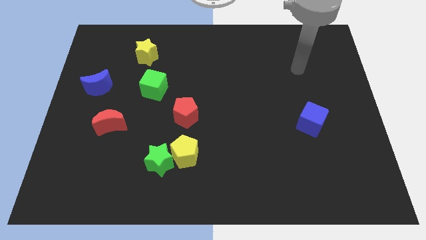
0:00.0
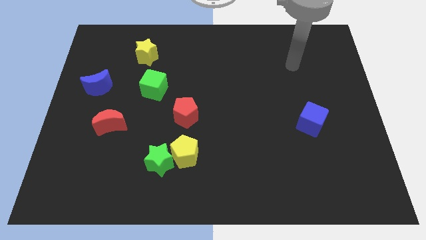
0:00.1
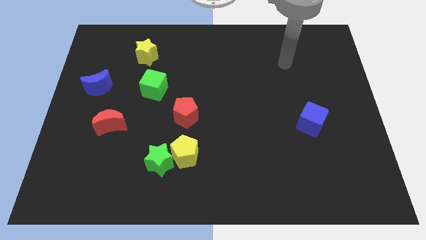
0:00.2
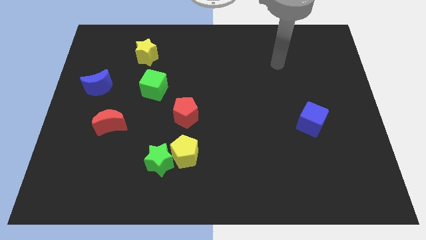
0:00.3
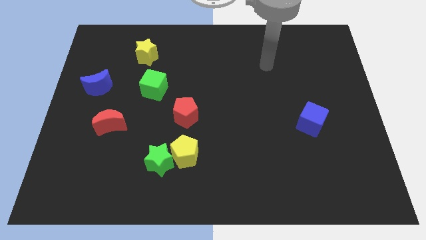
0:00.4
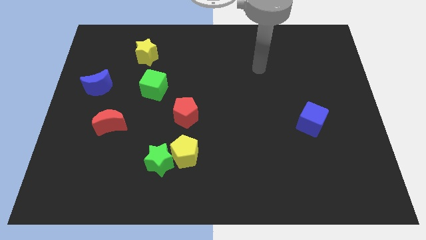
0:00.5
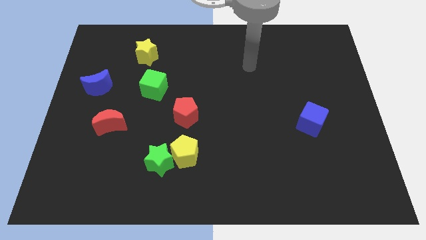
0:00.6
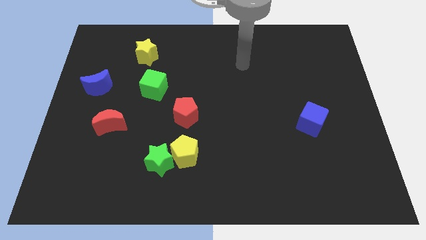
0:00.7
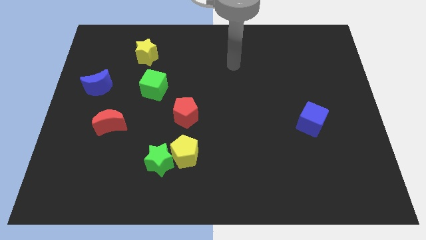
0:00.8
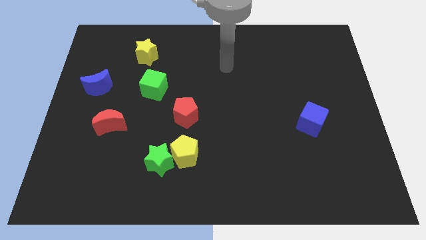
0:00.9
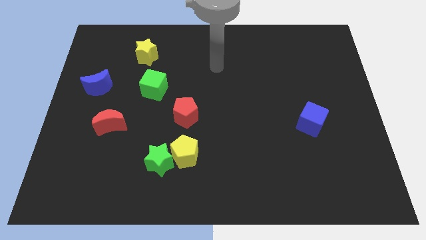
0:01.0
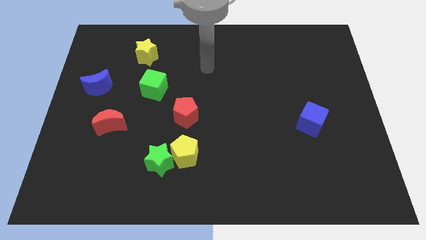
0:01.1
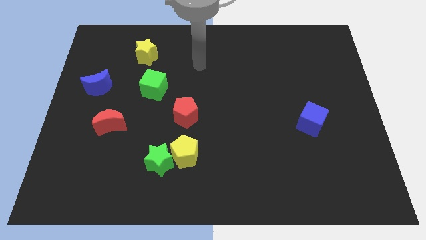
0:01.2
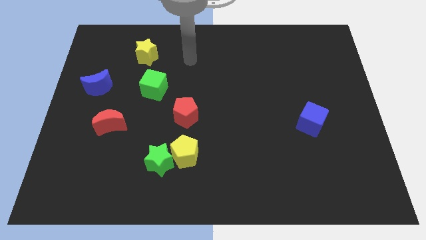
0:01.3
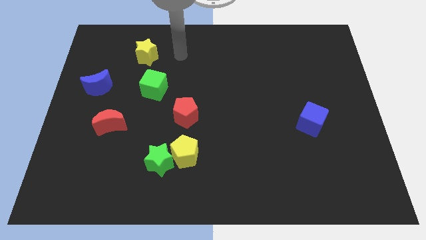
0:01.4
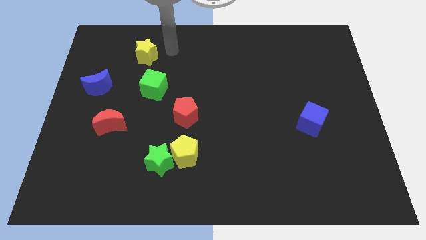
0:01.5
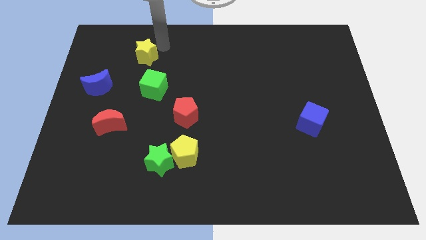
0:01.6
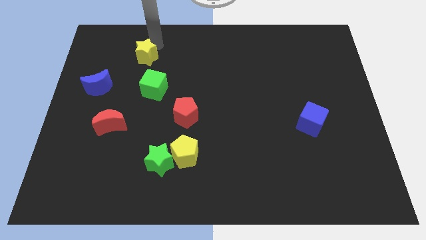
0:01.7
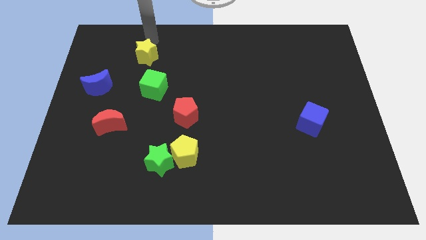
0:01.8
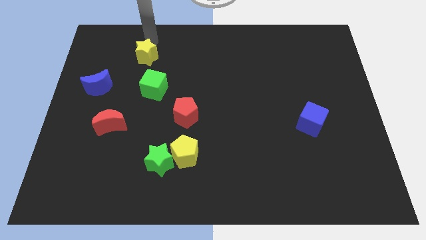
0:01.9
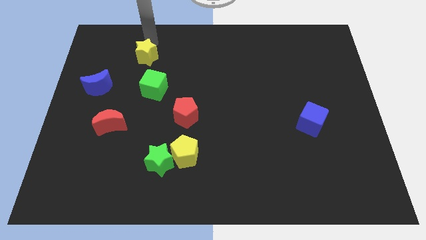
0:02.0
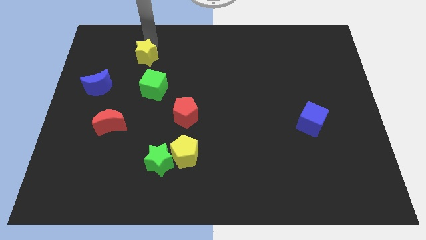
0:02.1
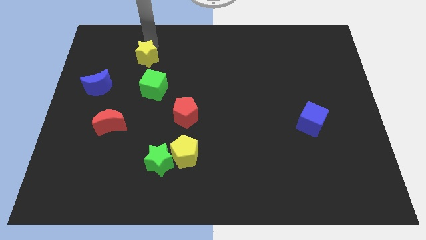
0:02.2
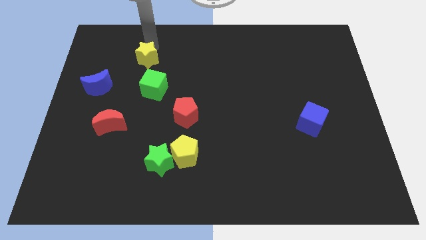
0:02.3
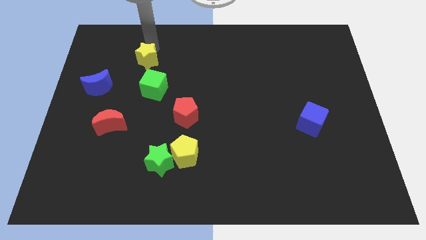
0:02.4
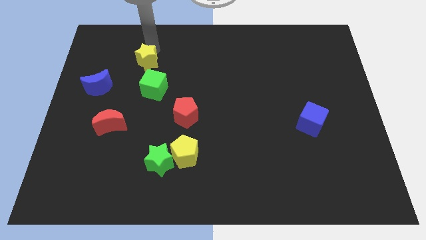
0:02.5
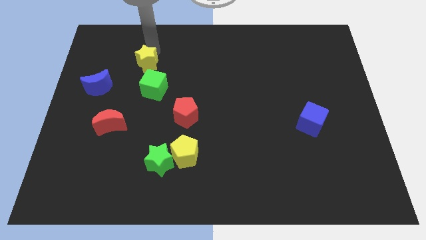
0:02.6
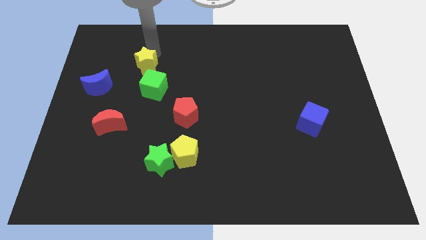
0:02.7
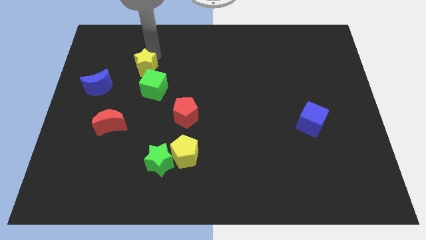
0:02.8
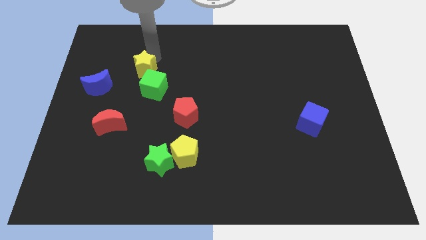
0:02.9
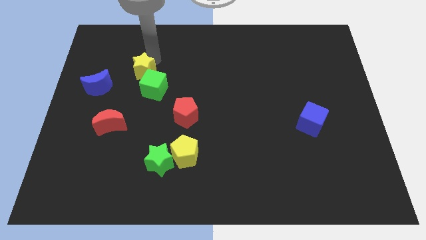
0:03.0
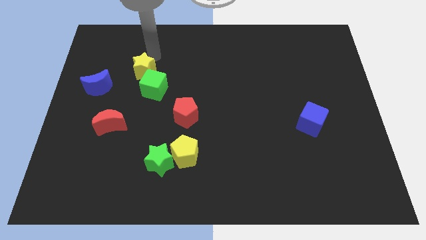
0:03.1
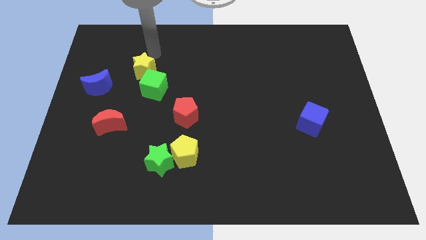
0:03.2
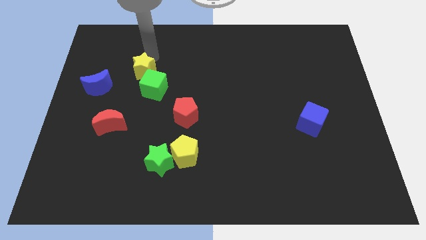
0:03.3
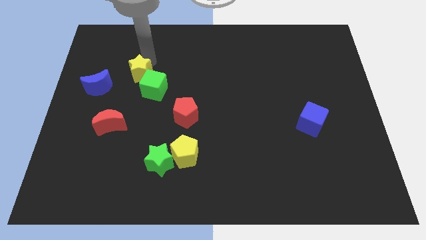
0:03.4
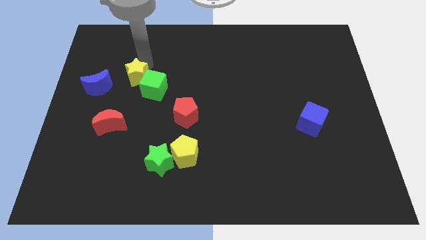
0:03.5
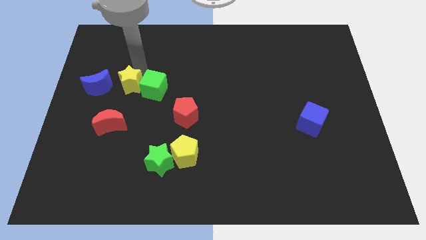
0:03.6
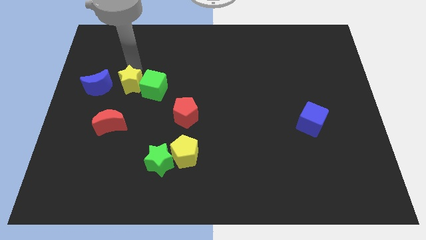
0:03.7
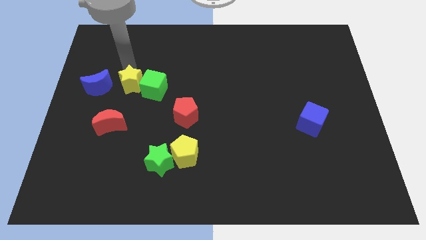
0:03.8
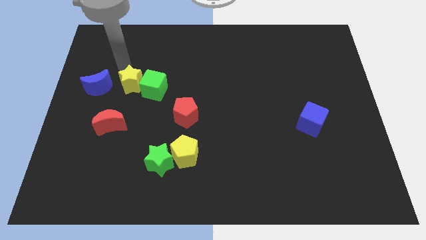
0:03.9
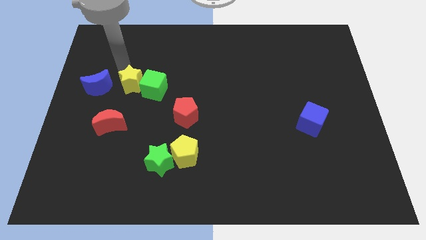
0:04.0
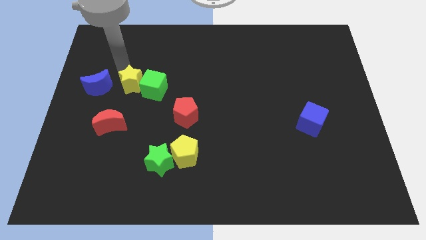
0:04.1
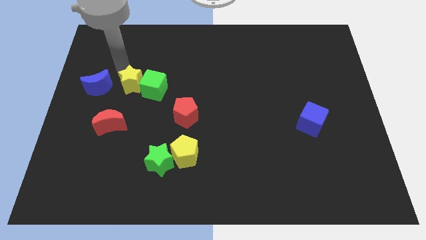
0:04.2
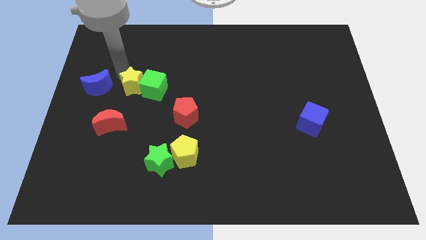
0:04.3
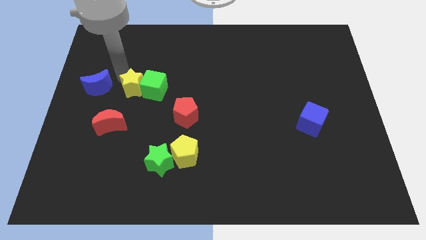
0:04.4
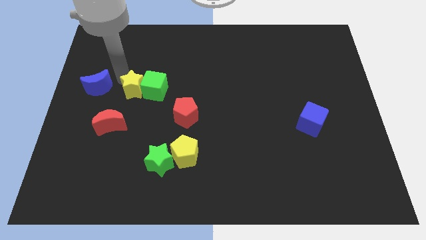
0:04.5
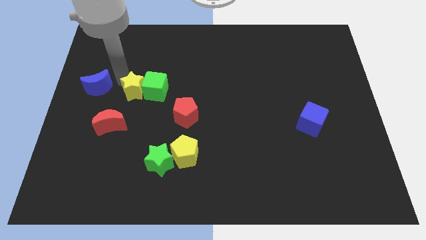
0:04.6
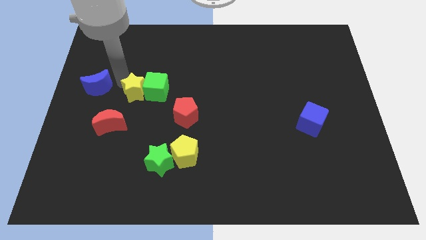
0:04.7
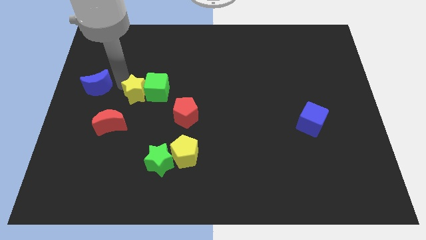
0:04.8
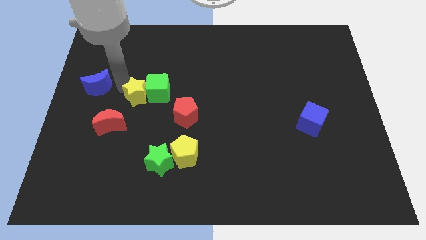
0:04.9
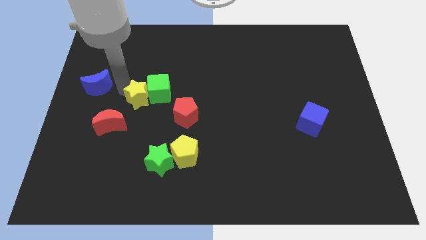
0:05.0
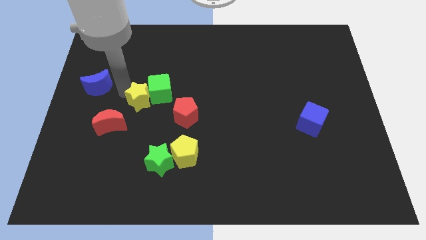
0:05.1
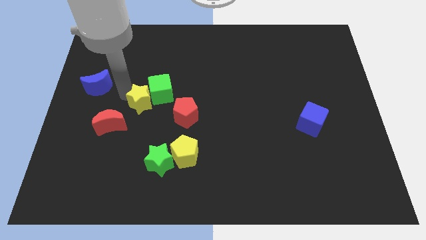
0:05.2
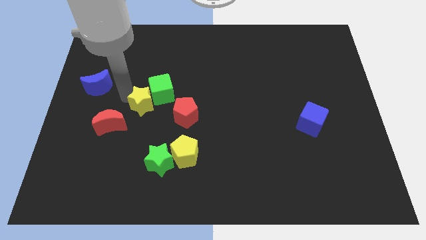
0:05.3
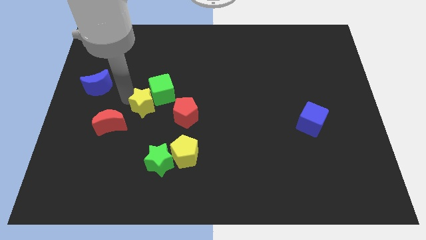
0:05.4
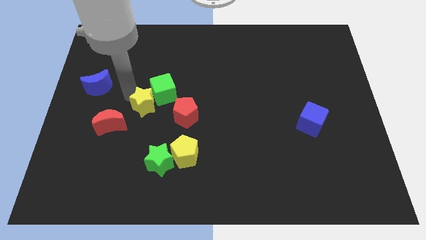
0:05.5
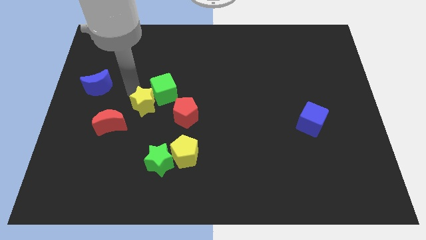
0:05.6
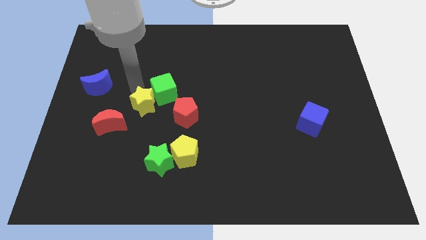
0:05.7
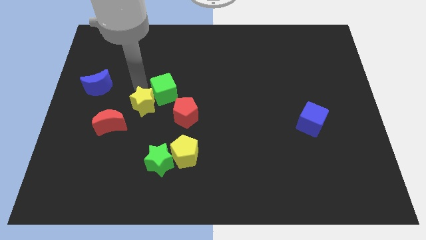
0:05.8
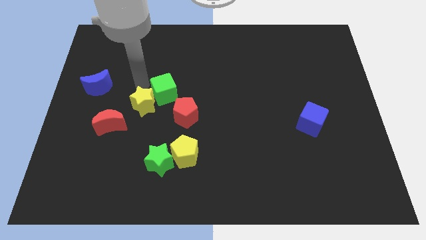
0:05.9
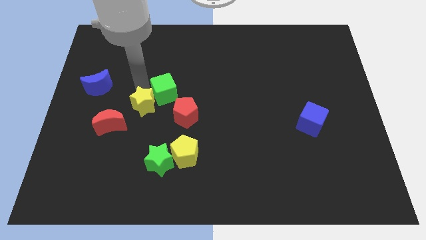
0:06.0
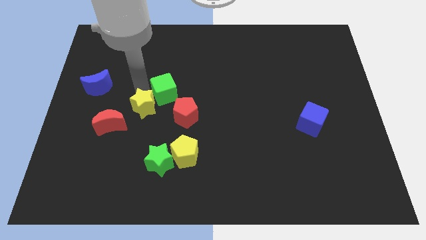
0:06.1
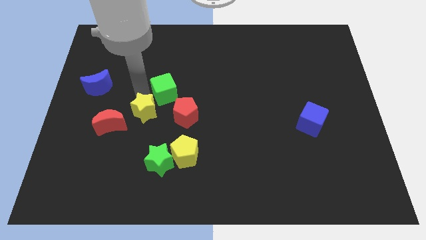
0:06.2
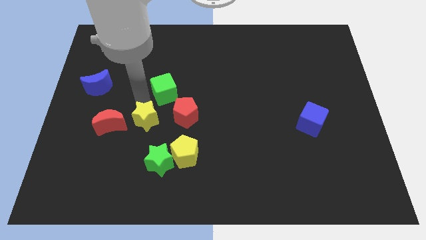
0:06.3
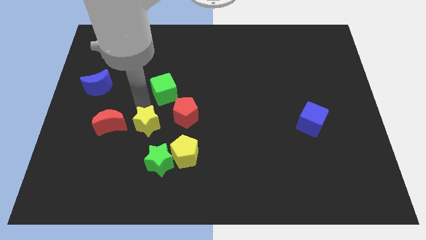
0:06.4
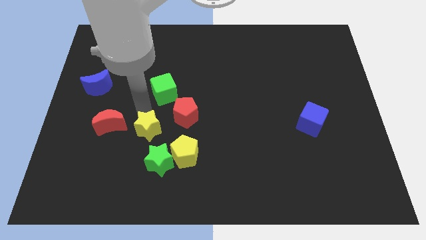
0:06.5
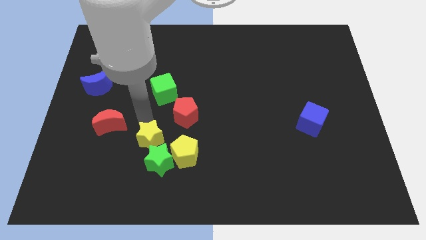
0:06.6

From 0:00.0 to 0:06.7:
move the yellow star to the green star

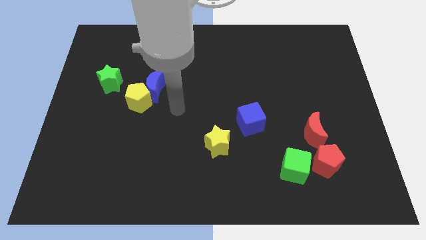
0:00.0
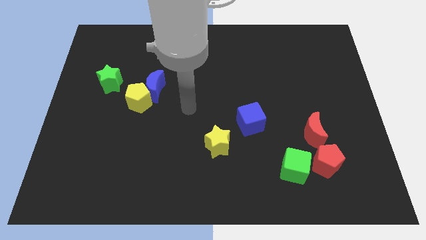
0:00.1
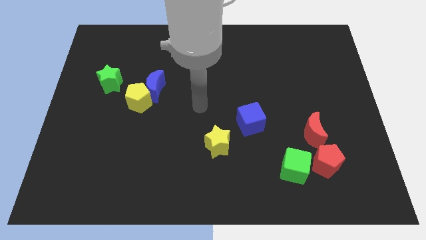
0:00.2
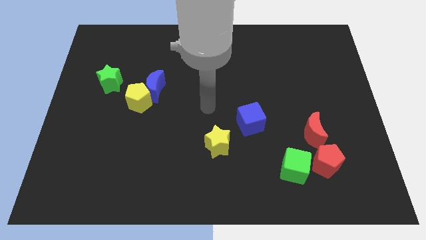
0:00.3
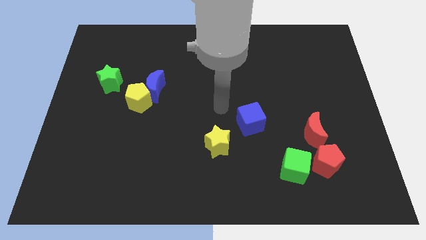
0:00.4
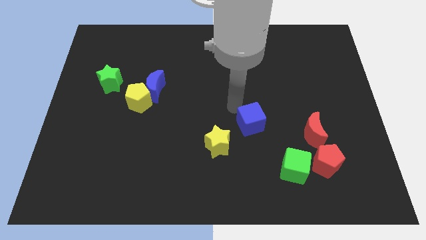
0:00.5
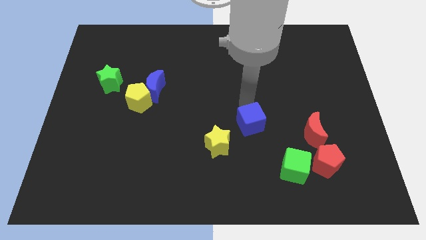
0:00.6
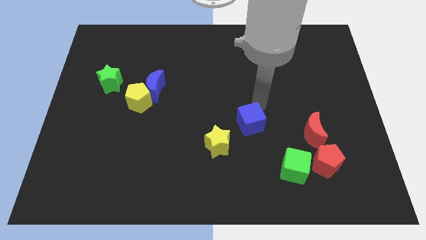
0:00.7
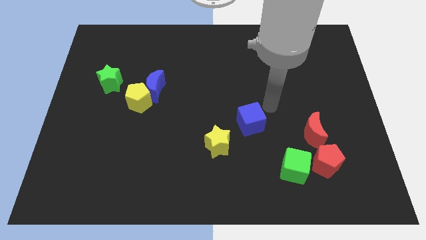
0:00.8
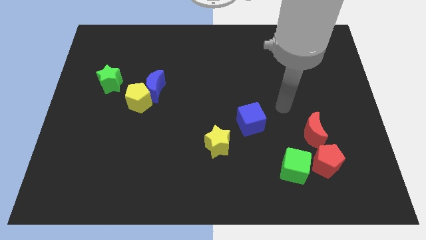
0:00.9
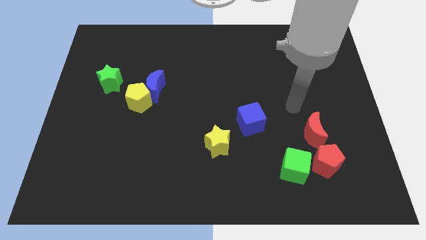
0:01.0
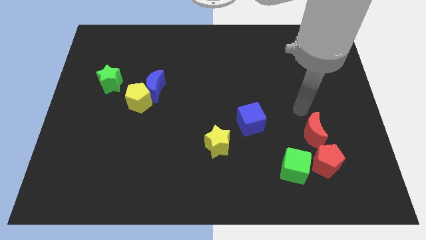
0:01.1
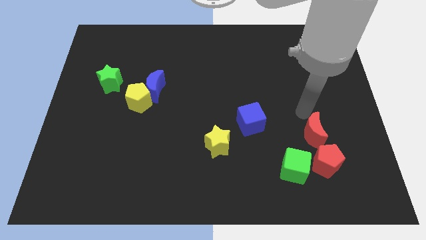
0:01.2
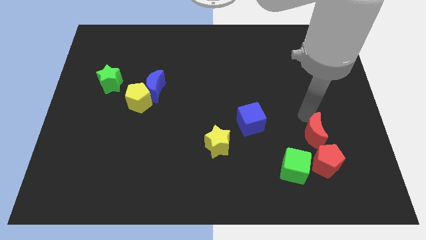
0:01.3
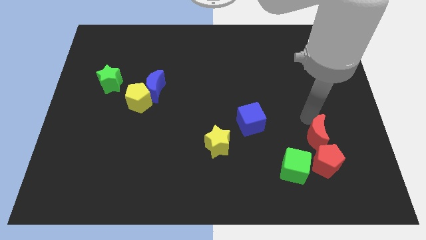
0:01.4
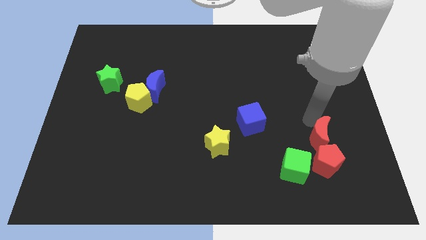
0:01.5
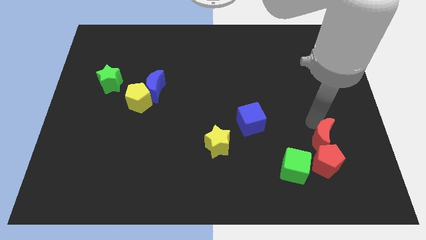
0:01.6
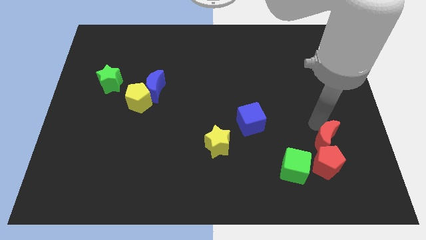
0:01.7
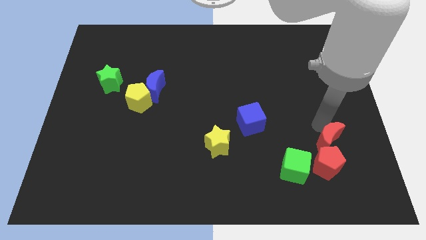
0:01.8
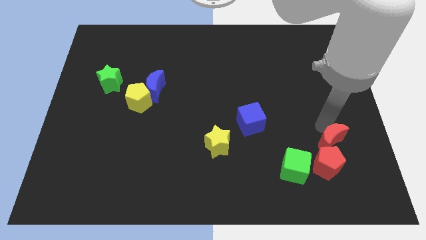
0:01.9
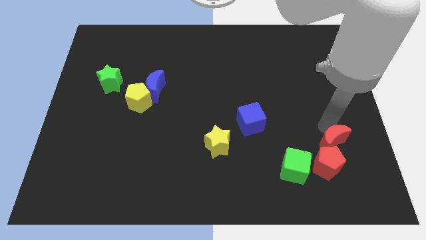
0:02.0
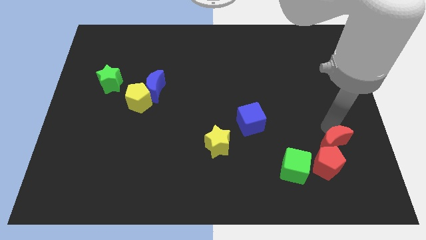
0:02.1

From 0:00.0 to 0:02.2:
slide the red moon towards the red pentagon
